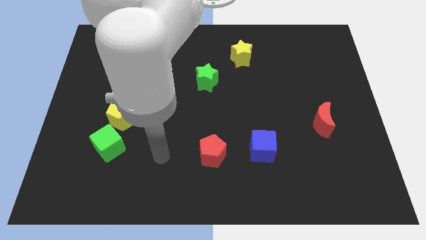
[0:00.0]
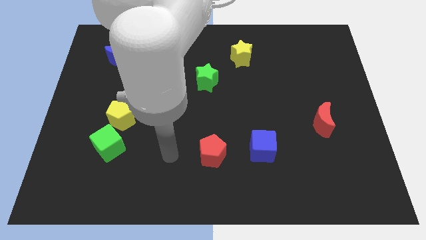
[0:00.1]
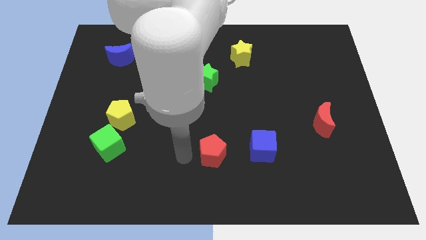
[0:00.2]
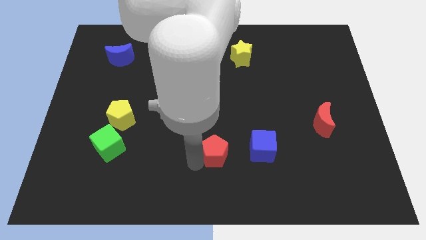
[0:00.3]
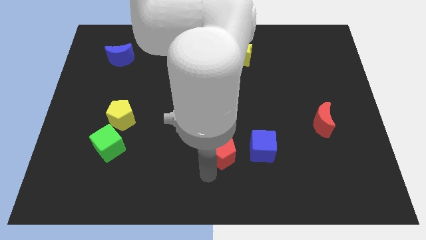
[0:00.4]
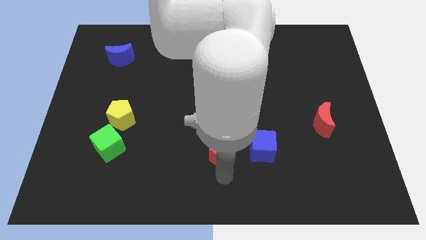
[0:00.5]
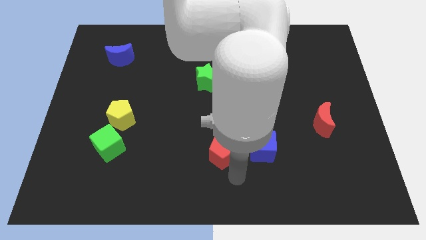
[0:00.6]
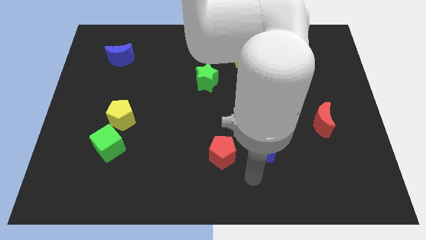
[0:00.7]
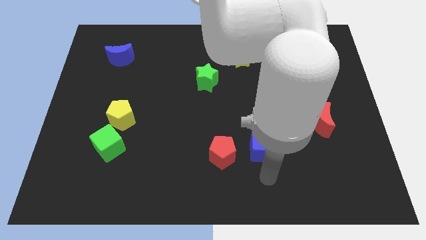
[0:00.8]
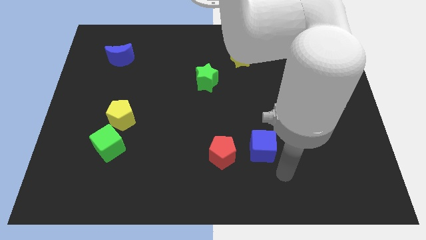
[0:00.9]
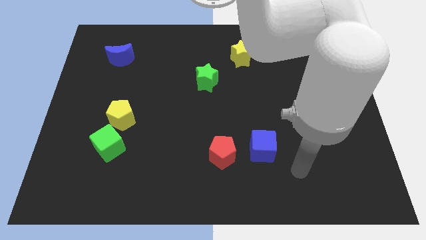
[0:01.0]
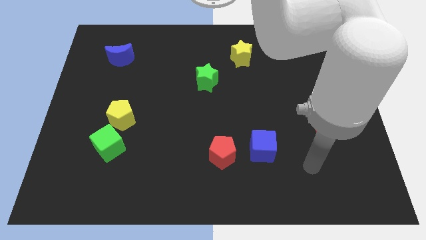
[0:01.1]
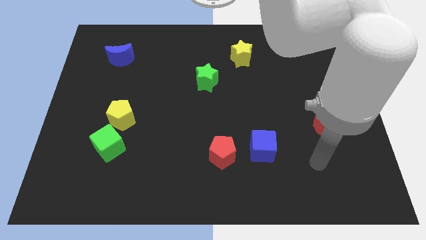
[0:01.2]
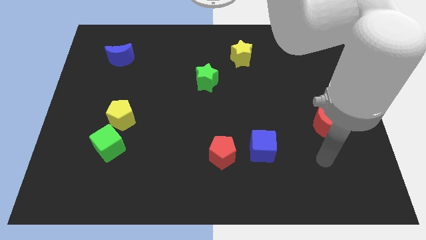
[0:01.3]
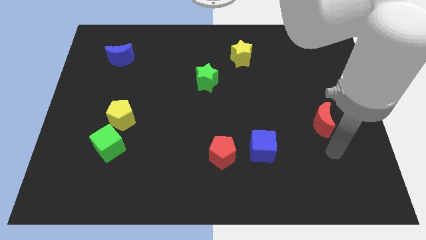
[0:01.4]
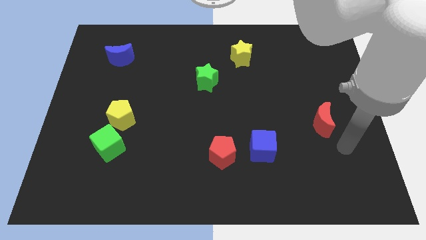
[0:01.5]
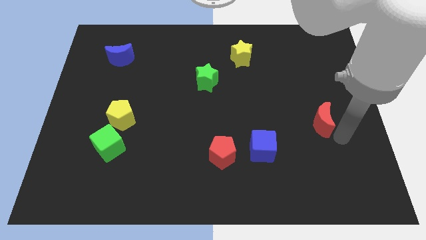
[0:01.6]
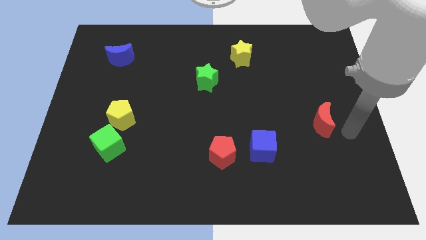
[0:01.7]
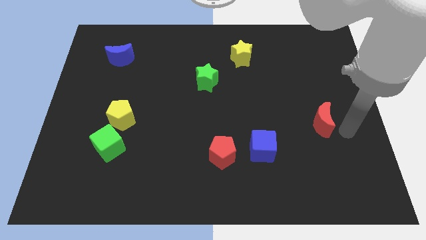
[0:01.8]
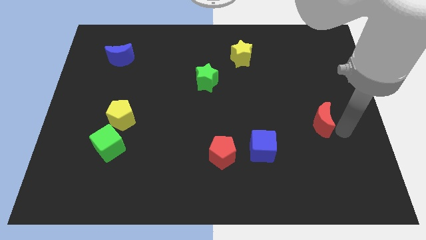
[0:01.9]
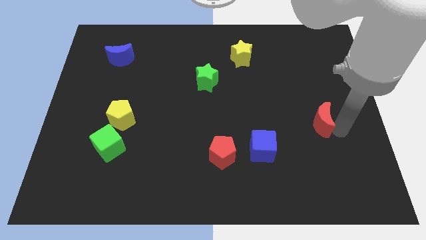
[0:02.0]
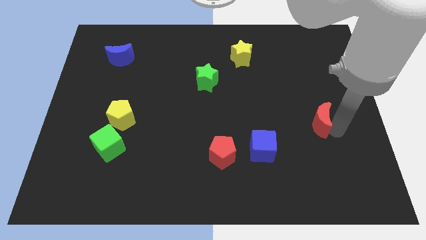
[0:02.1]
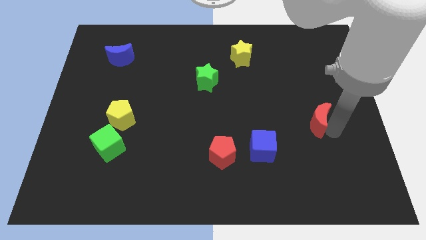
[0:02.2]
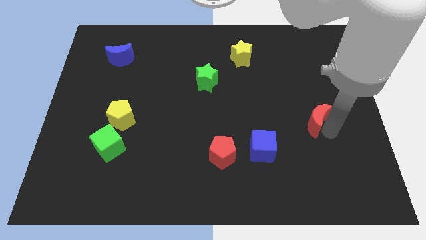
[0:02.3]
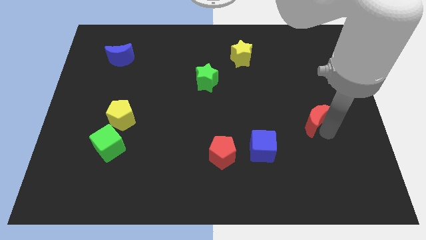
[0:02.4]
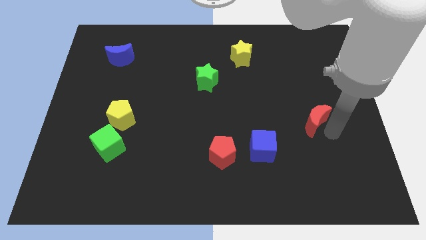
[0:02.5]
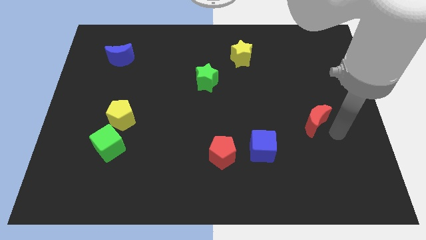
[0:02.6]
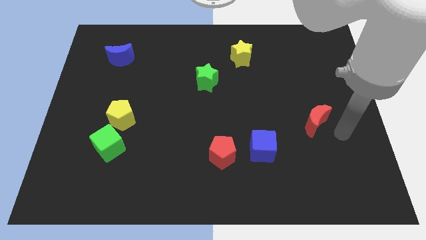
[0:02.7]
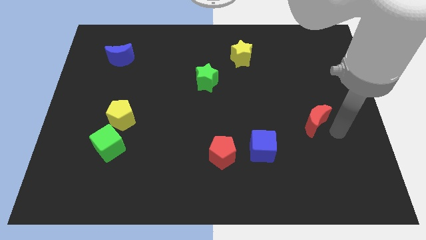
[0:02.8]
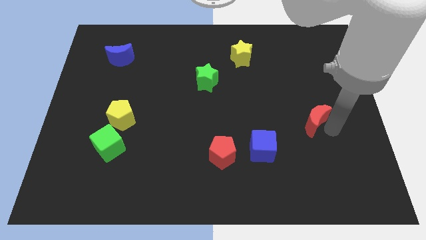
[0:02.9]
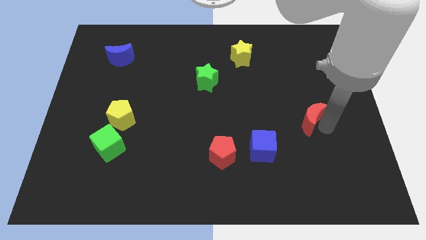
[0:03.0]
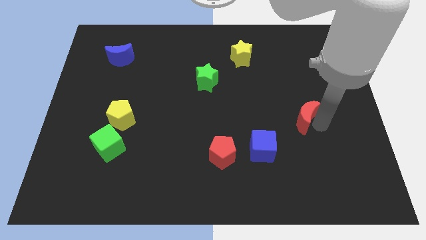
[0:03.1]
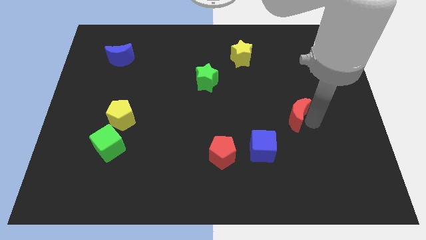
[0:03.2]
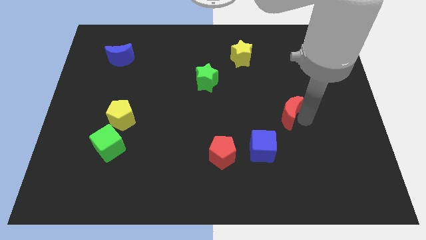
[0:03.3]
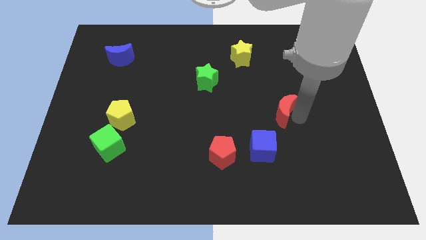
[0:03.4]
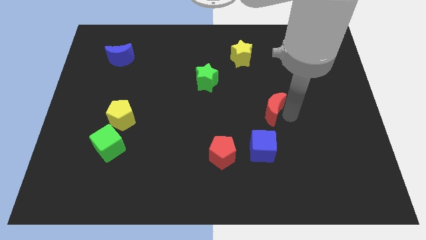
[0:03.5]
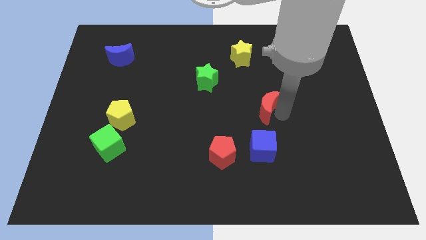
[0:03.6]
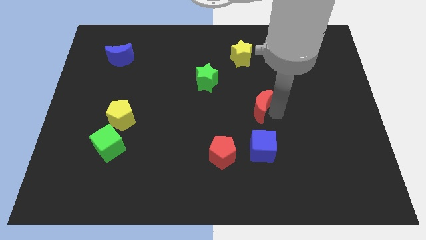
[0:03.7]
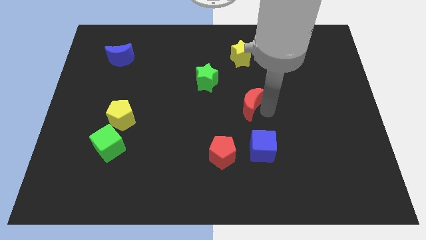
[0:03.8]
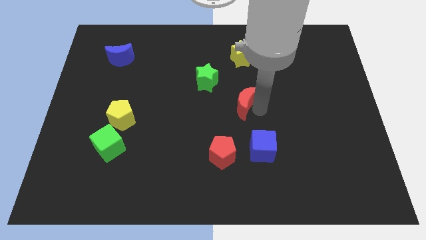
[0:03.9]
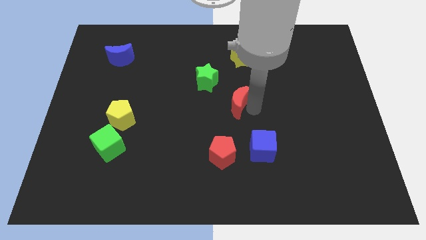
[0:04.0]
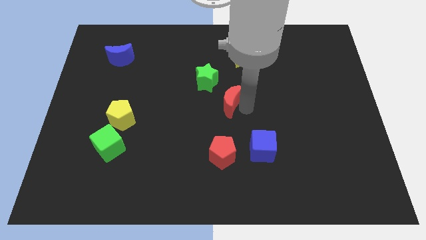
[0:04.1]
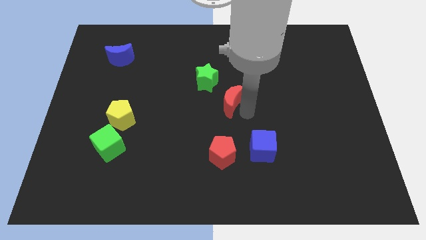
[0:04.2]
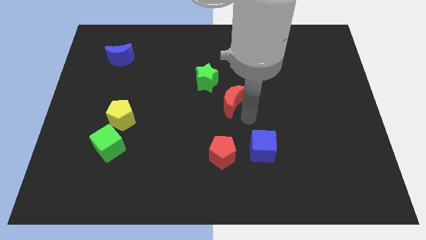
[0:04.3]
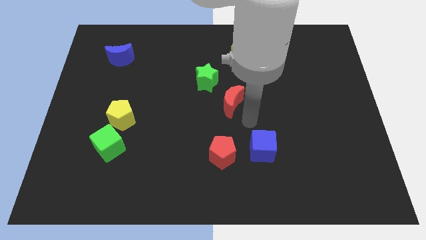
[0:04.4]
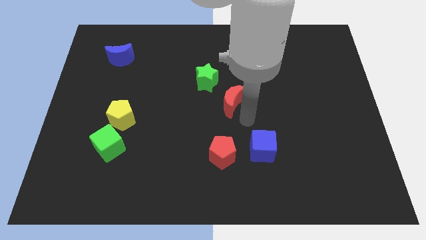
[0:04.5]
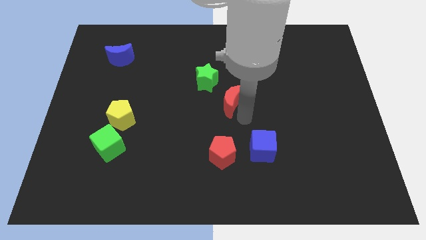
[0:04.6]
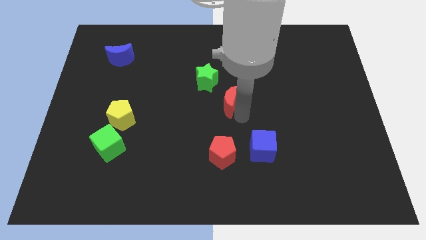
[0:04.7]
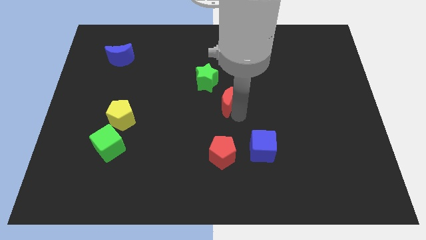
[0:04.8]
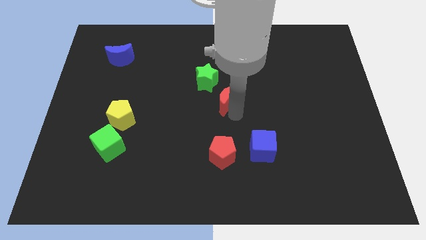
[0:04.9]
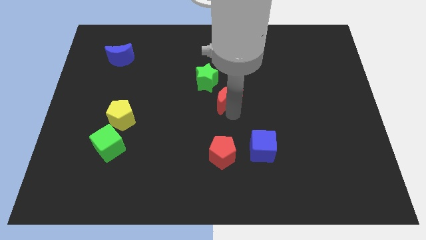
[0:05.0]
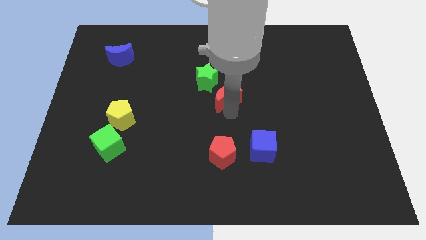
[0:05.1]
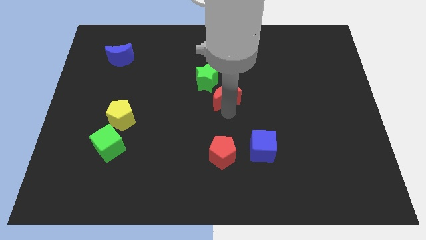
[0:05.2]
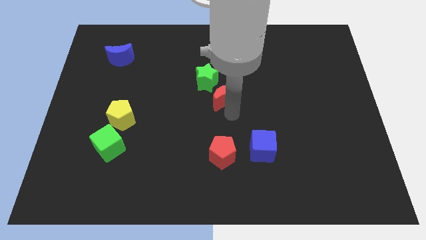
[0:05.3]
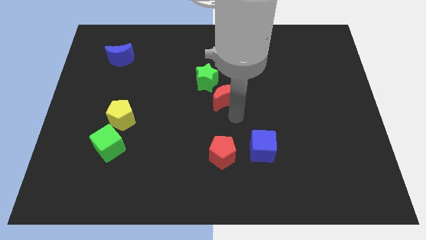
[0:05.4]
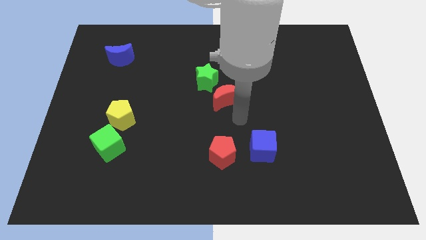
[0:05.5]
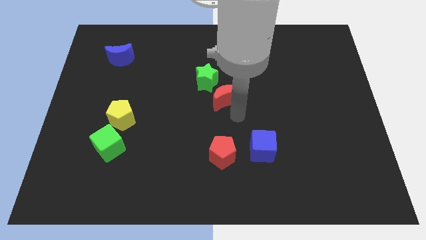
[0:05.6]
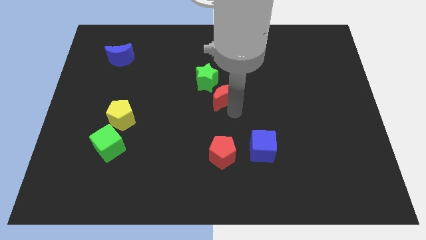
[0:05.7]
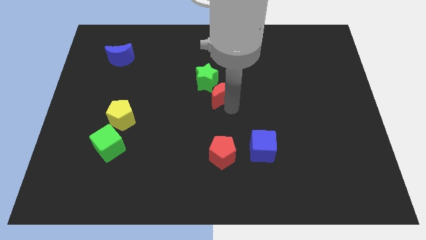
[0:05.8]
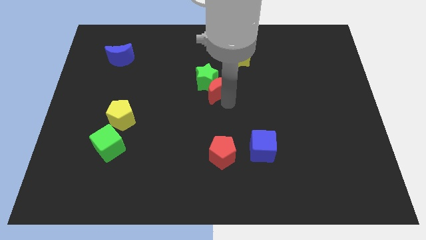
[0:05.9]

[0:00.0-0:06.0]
put the red moon close to the green star
